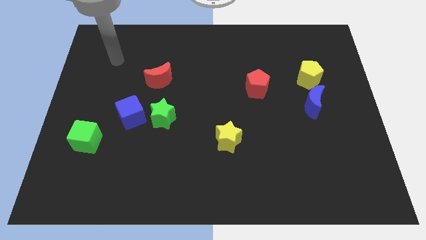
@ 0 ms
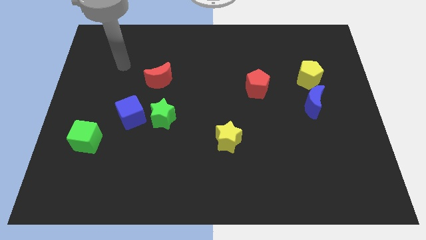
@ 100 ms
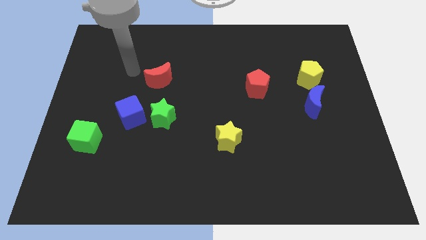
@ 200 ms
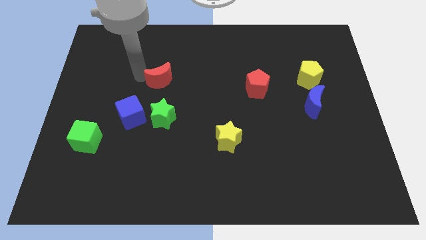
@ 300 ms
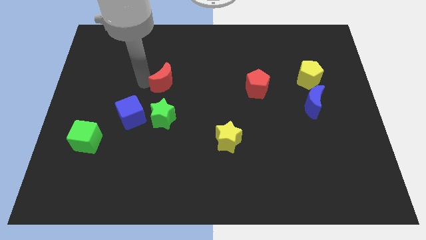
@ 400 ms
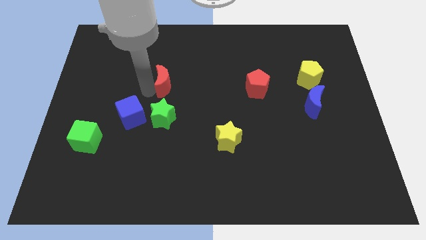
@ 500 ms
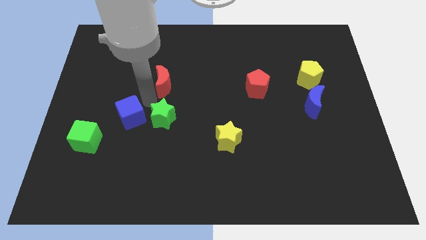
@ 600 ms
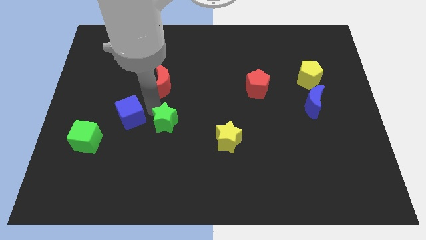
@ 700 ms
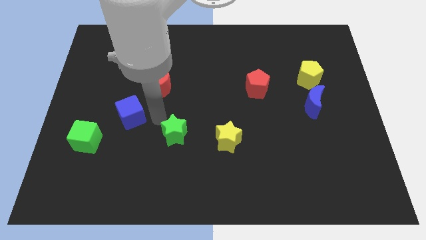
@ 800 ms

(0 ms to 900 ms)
separate the blue cube from the green star

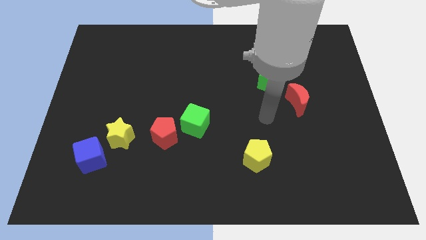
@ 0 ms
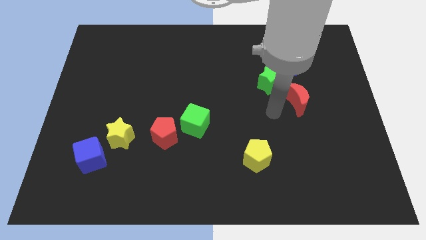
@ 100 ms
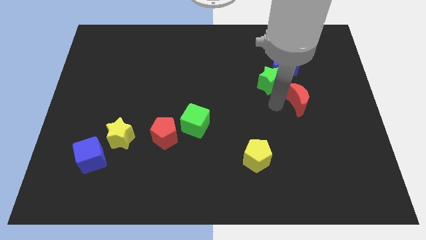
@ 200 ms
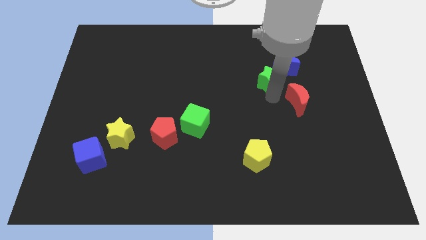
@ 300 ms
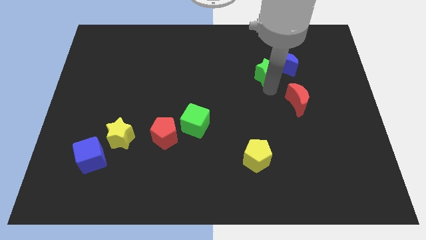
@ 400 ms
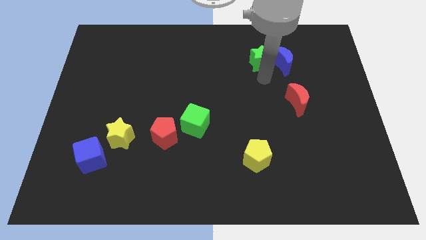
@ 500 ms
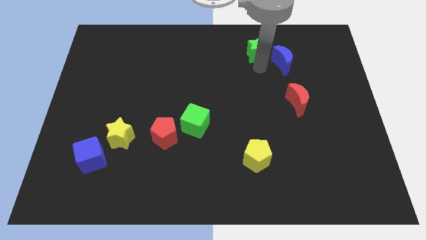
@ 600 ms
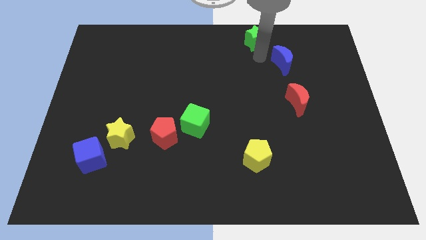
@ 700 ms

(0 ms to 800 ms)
pull the blue moon apart from the green star

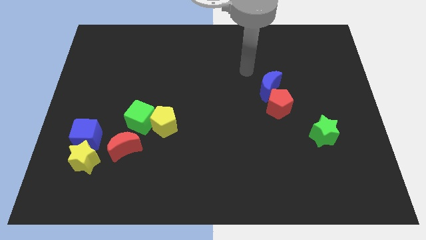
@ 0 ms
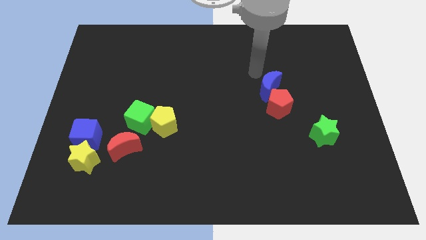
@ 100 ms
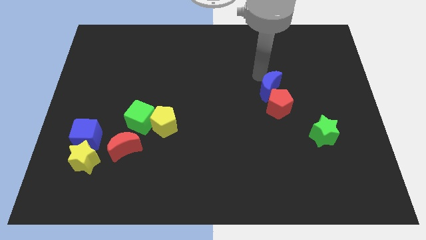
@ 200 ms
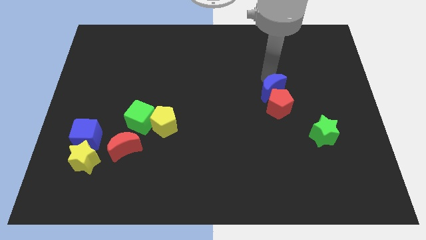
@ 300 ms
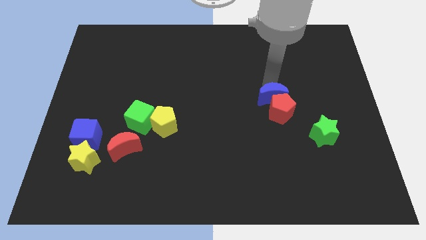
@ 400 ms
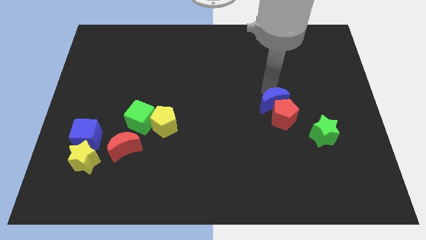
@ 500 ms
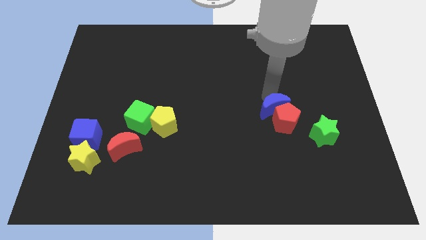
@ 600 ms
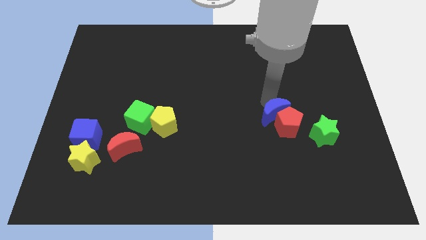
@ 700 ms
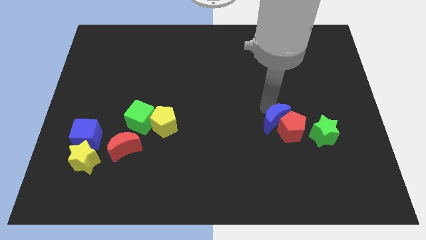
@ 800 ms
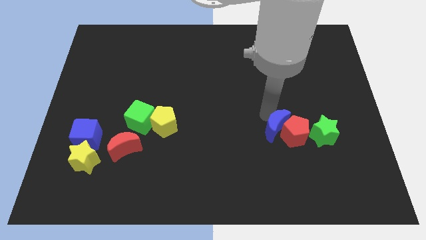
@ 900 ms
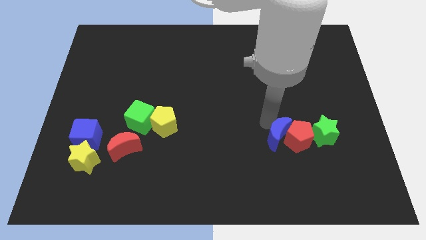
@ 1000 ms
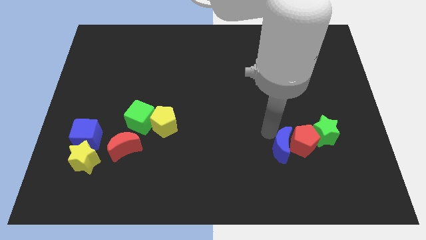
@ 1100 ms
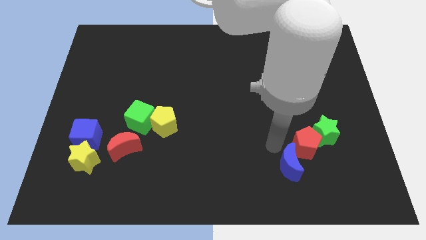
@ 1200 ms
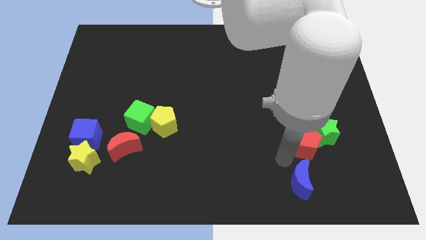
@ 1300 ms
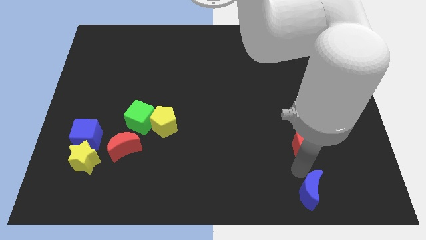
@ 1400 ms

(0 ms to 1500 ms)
separate the red pentagon from the blue moon

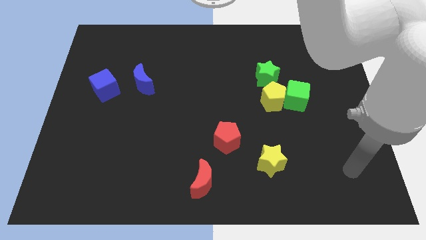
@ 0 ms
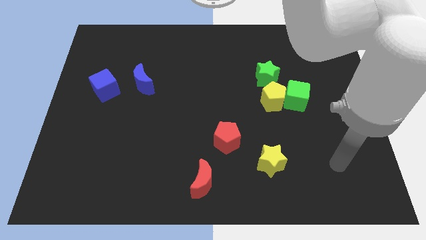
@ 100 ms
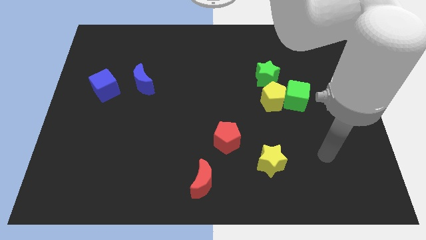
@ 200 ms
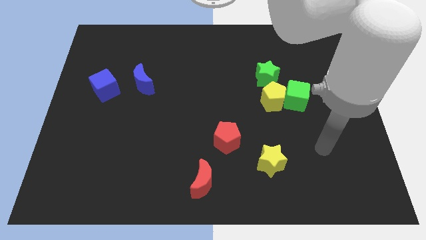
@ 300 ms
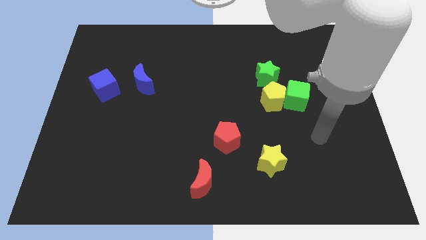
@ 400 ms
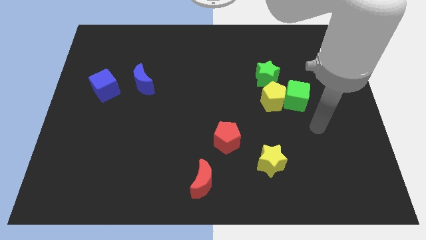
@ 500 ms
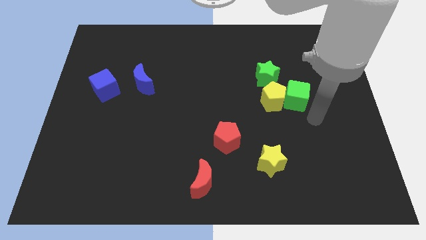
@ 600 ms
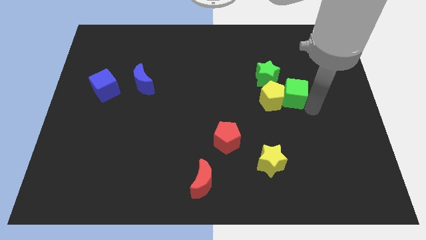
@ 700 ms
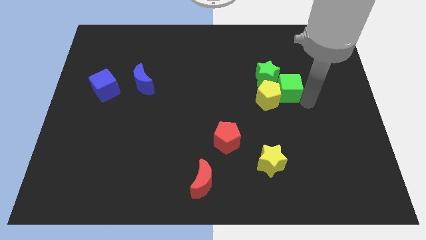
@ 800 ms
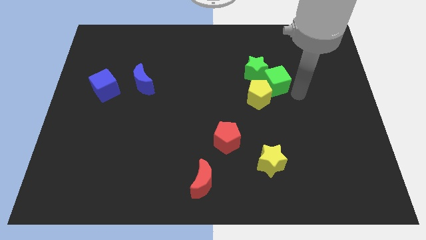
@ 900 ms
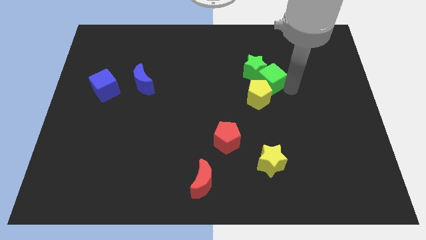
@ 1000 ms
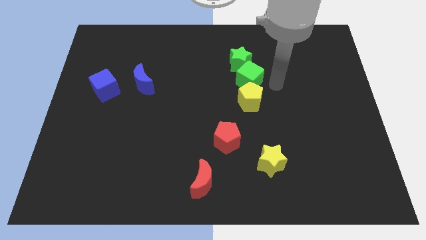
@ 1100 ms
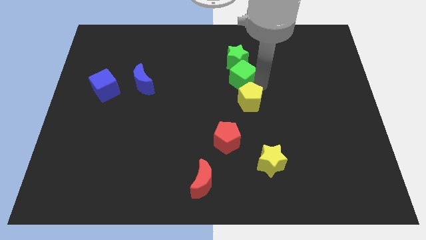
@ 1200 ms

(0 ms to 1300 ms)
separate the yellow pentagon from the green cube and green star

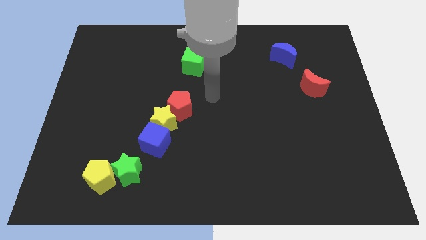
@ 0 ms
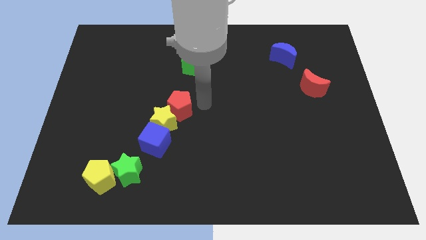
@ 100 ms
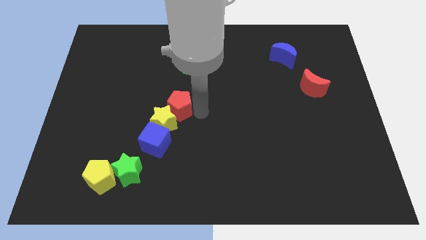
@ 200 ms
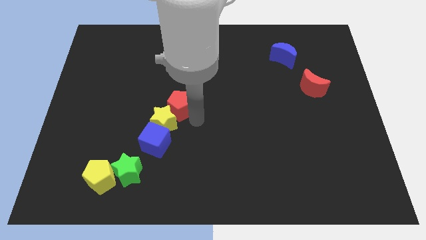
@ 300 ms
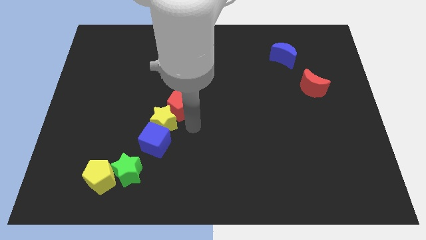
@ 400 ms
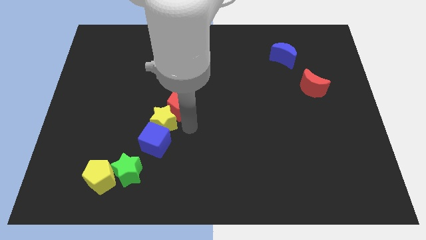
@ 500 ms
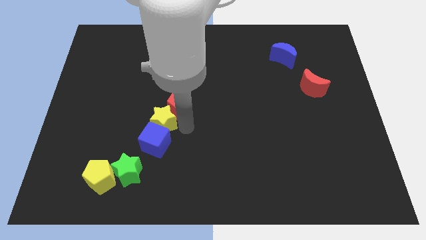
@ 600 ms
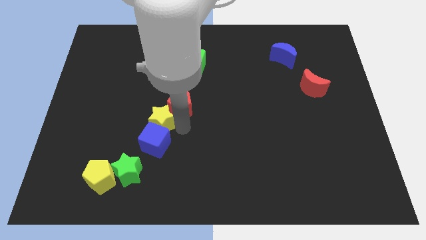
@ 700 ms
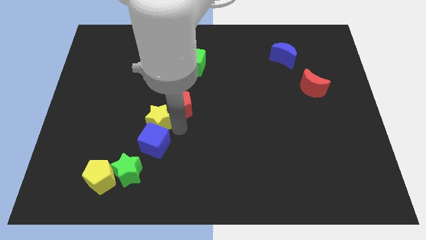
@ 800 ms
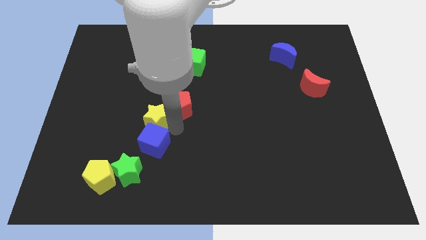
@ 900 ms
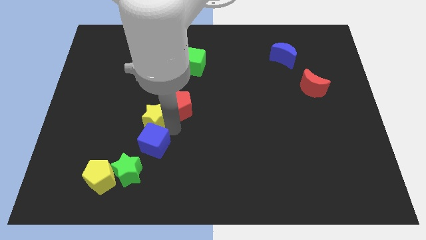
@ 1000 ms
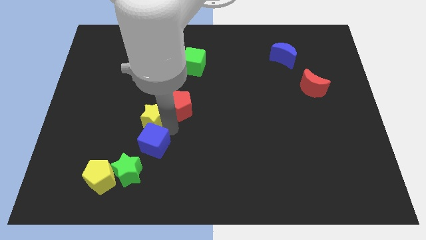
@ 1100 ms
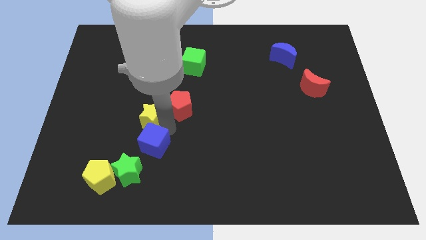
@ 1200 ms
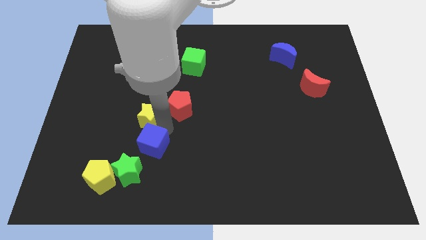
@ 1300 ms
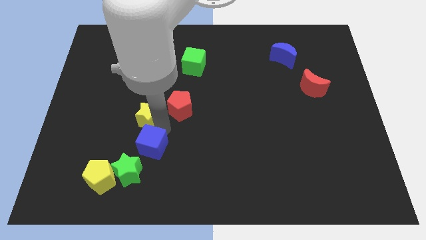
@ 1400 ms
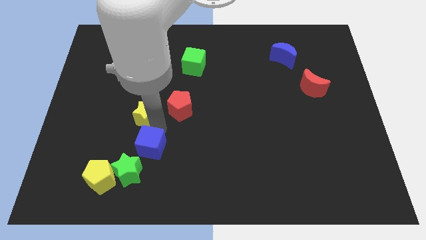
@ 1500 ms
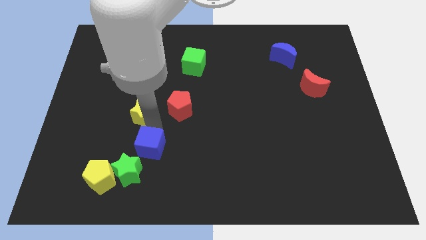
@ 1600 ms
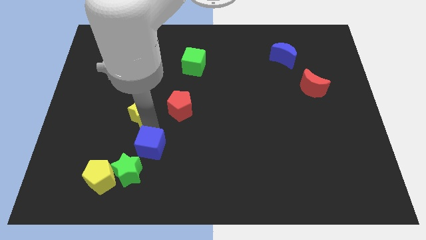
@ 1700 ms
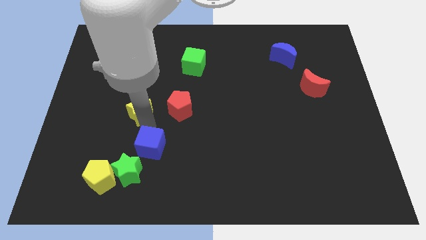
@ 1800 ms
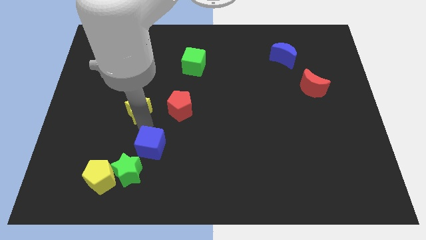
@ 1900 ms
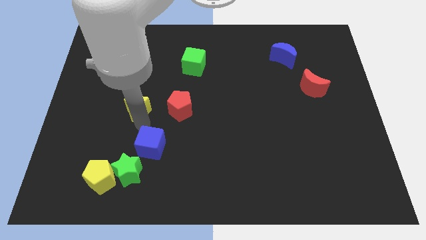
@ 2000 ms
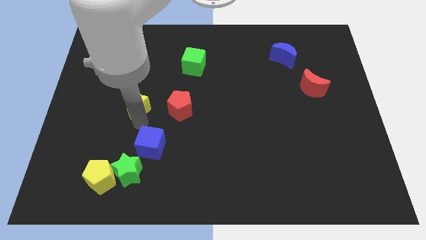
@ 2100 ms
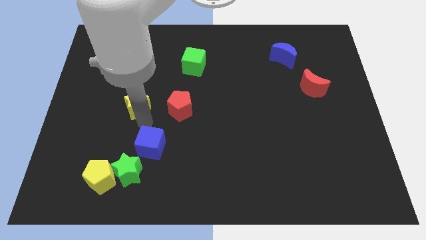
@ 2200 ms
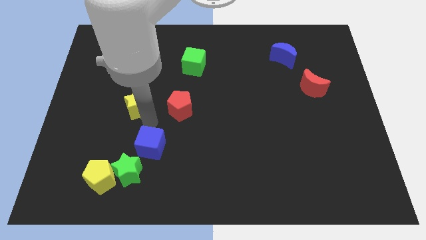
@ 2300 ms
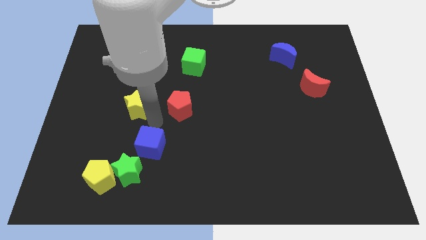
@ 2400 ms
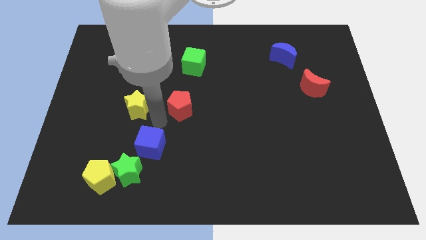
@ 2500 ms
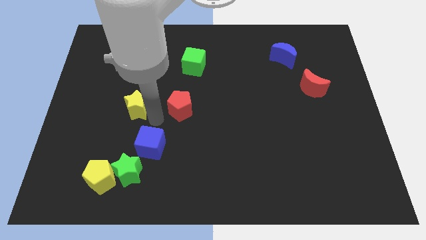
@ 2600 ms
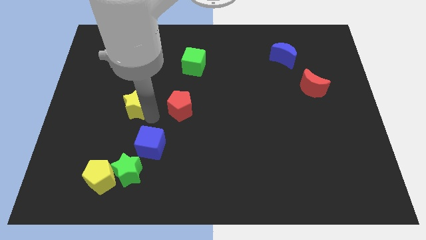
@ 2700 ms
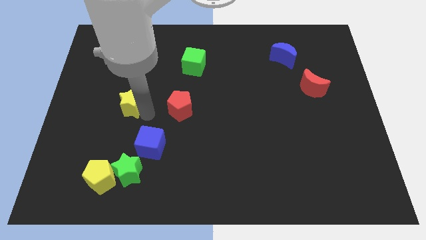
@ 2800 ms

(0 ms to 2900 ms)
pull the yellow star apart from the blue cube and red pentagon

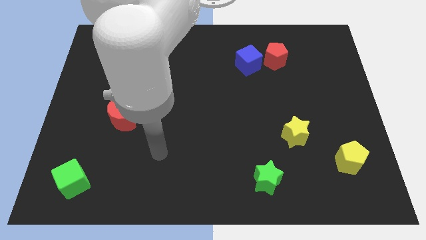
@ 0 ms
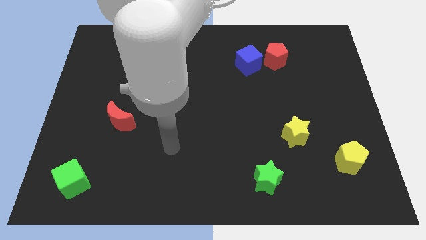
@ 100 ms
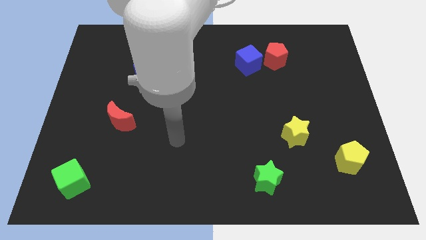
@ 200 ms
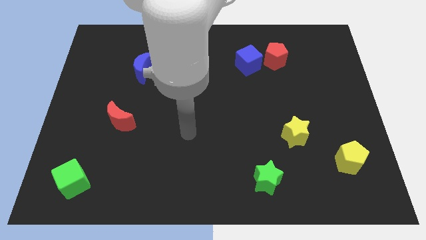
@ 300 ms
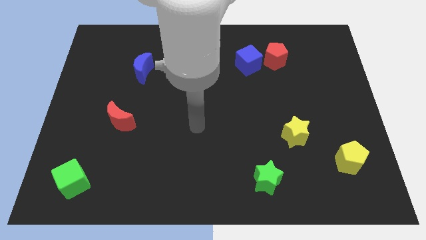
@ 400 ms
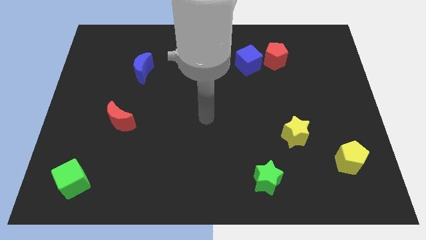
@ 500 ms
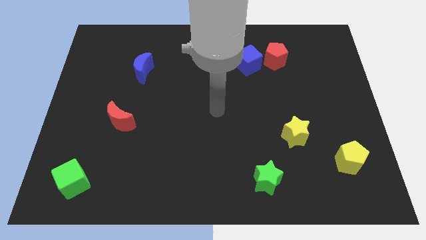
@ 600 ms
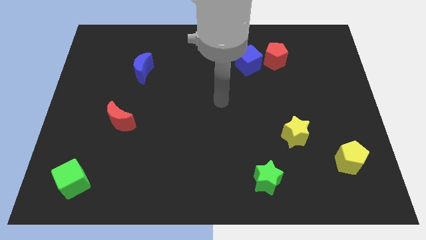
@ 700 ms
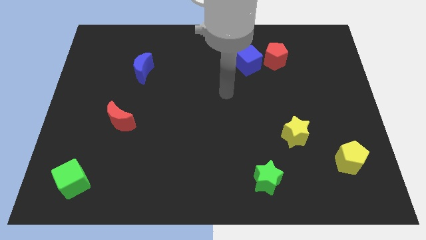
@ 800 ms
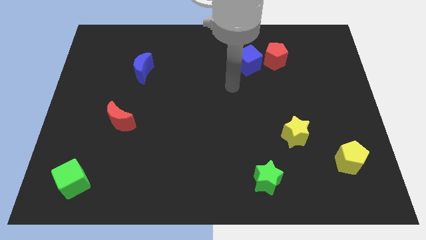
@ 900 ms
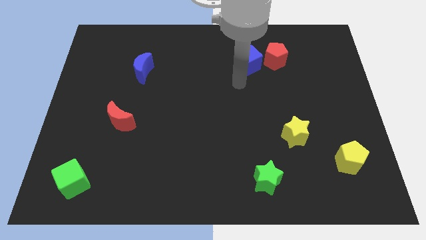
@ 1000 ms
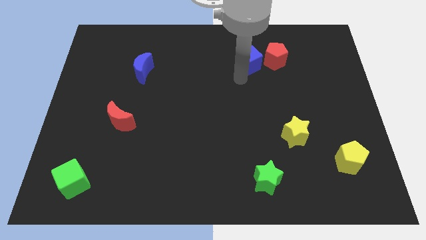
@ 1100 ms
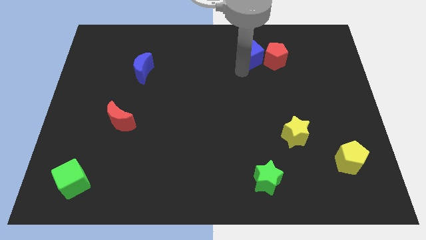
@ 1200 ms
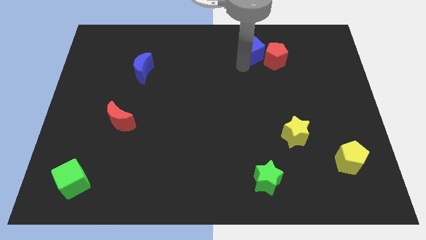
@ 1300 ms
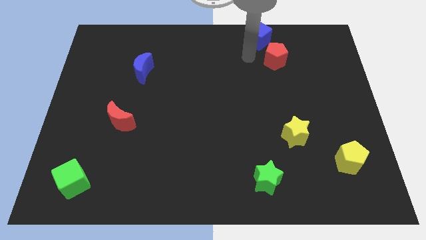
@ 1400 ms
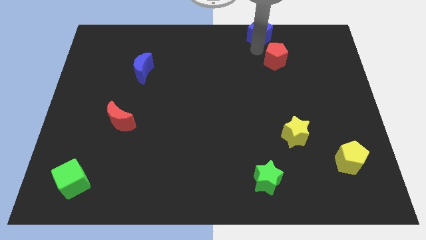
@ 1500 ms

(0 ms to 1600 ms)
move the red pentagon away from the blue cube

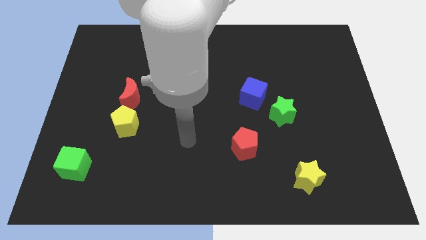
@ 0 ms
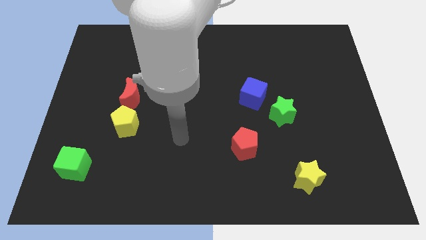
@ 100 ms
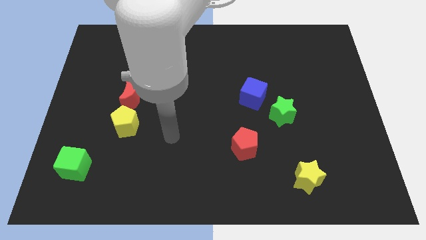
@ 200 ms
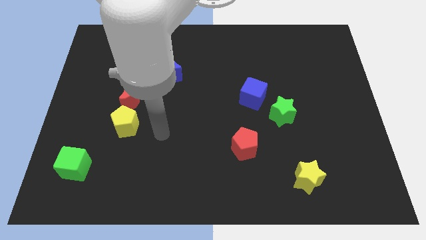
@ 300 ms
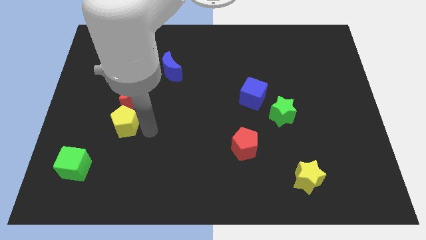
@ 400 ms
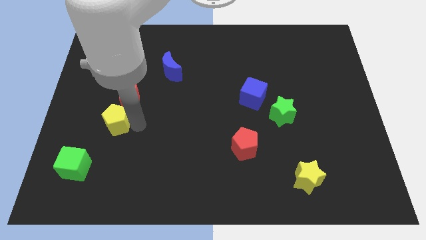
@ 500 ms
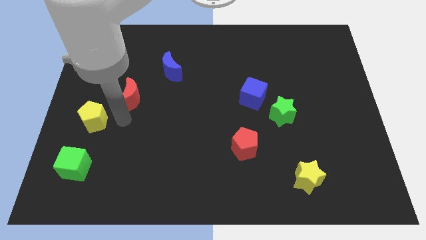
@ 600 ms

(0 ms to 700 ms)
pull the red moon apart from the yellow pentagon
